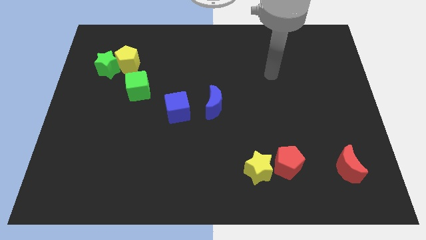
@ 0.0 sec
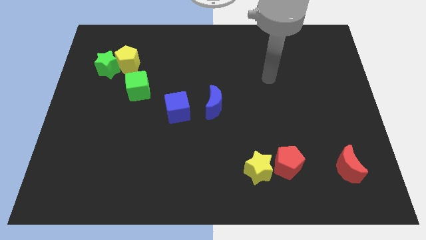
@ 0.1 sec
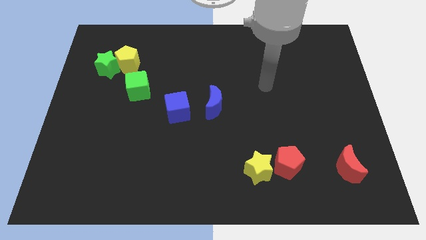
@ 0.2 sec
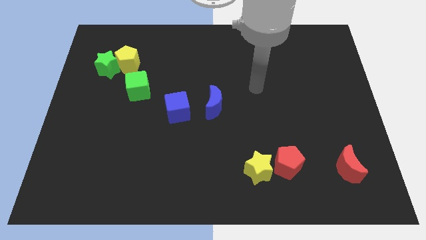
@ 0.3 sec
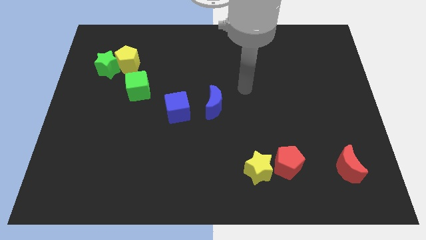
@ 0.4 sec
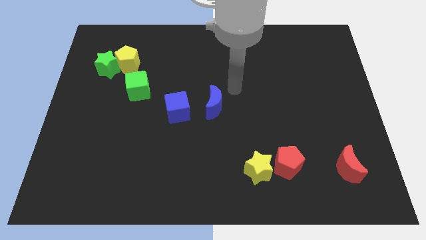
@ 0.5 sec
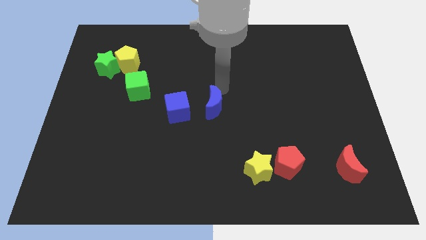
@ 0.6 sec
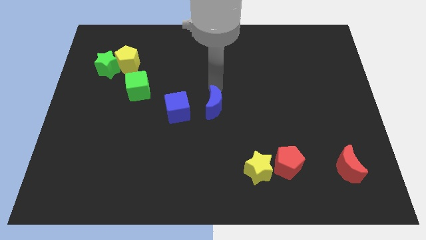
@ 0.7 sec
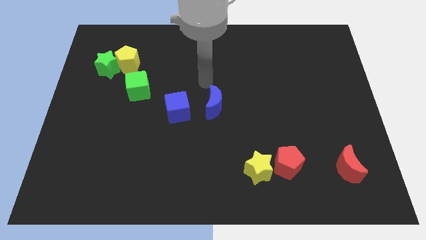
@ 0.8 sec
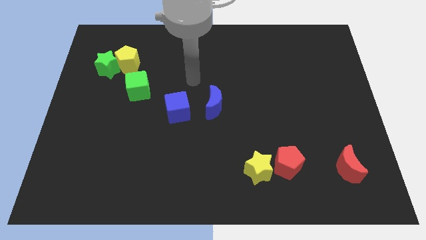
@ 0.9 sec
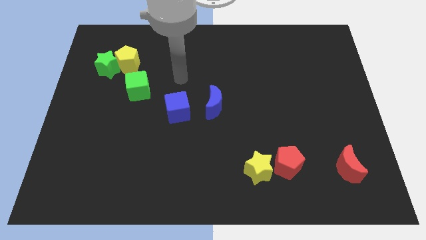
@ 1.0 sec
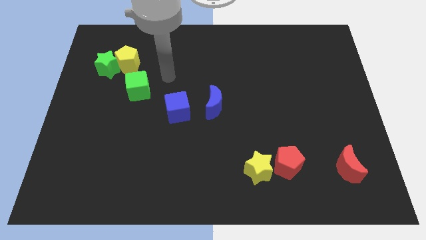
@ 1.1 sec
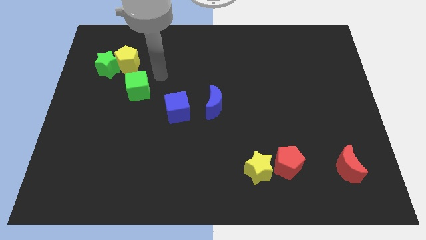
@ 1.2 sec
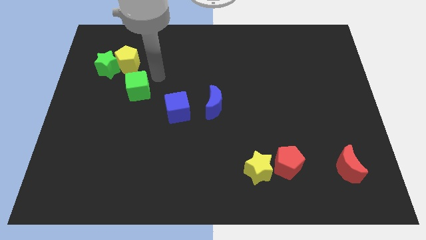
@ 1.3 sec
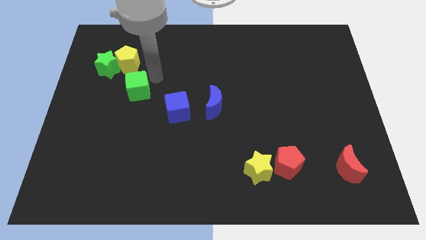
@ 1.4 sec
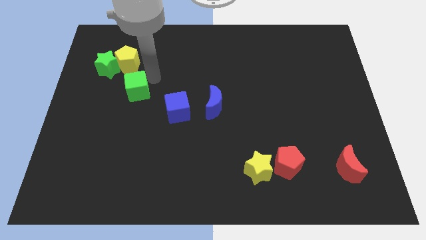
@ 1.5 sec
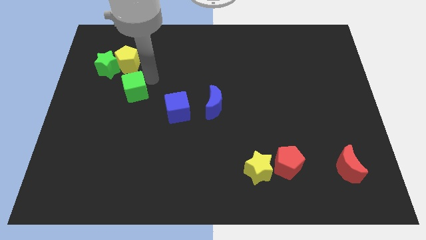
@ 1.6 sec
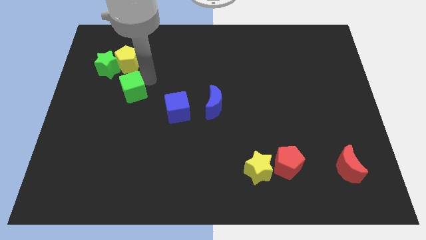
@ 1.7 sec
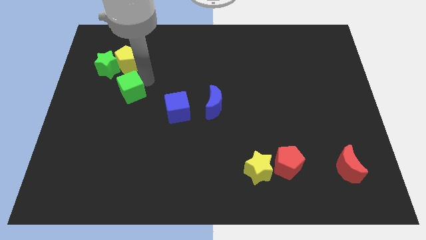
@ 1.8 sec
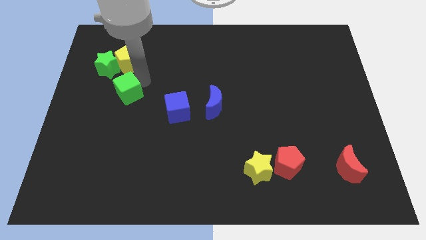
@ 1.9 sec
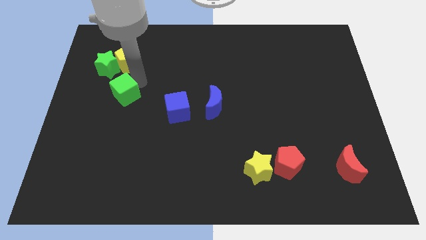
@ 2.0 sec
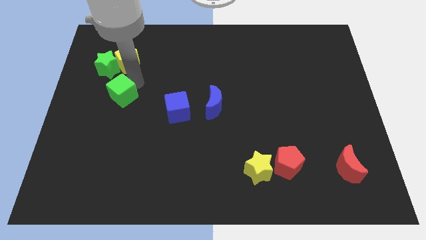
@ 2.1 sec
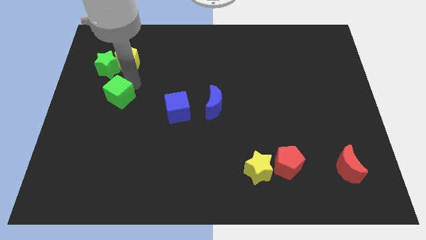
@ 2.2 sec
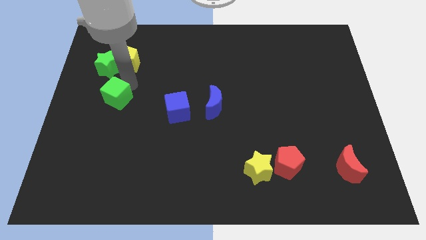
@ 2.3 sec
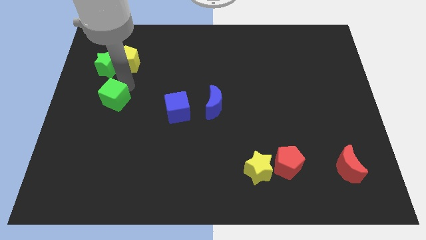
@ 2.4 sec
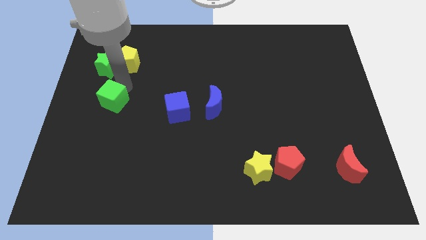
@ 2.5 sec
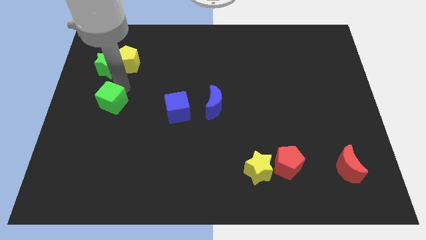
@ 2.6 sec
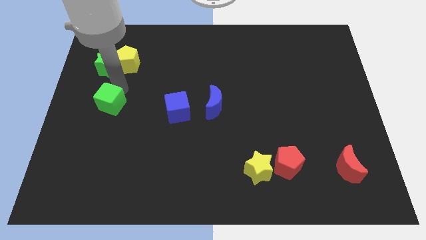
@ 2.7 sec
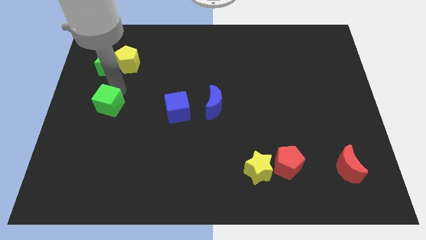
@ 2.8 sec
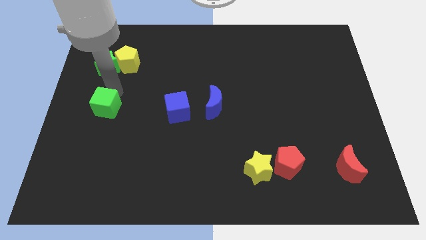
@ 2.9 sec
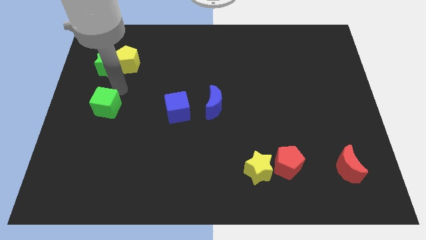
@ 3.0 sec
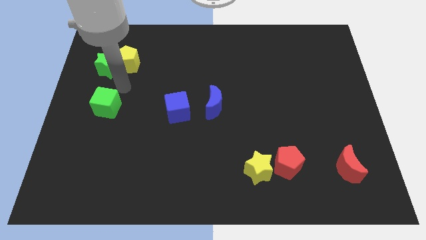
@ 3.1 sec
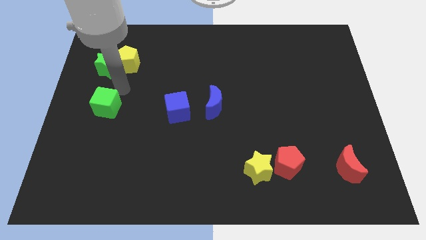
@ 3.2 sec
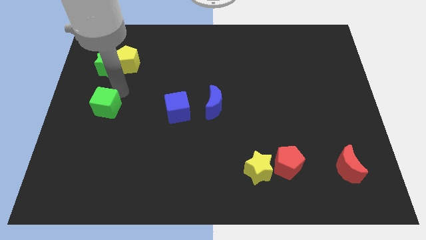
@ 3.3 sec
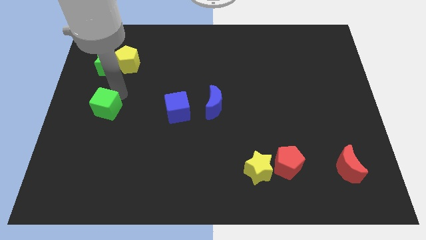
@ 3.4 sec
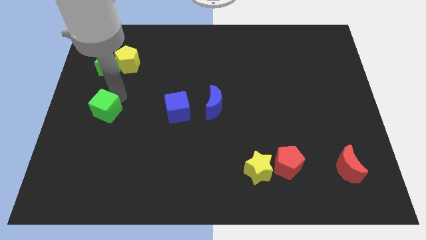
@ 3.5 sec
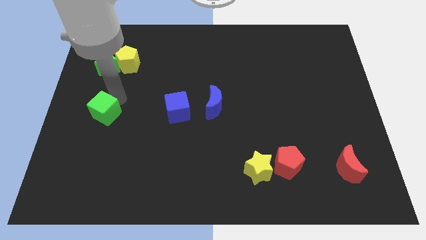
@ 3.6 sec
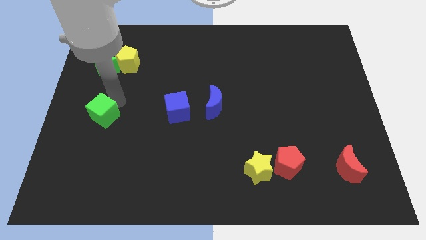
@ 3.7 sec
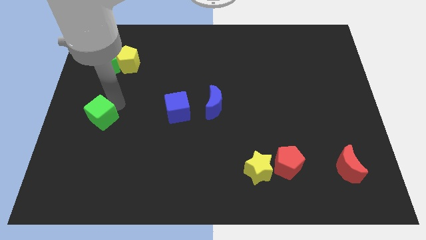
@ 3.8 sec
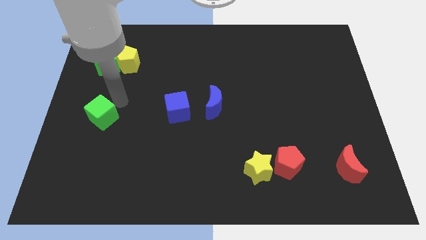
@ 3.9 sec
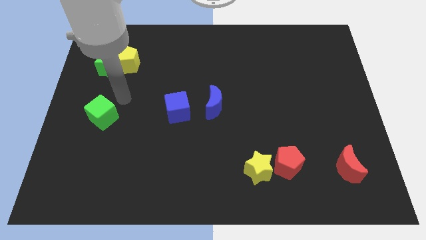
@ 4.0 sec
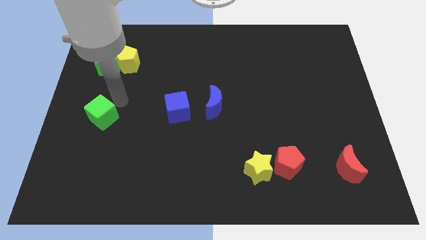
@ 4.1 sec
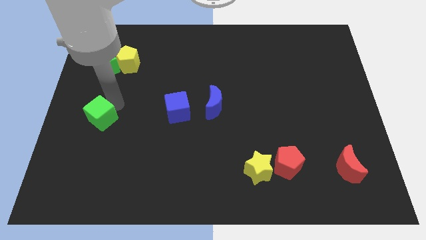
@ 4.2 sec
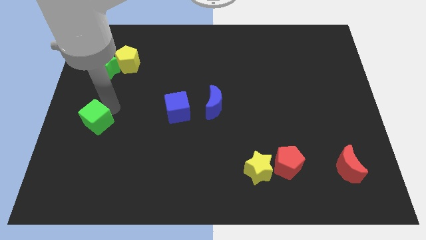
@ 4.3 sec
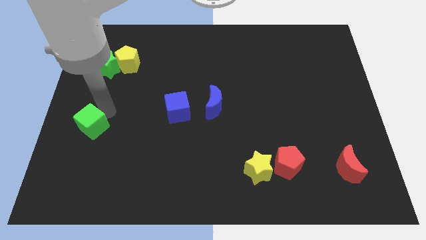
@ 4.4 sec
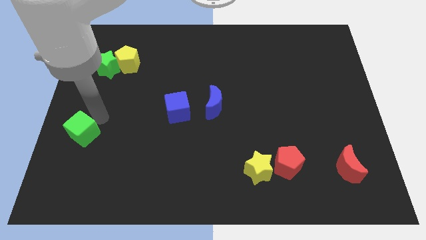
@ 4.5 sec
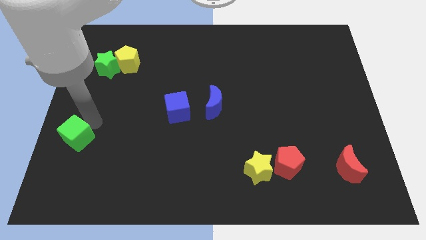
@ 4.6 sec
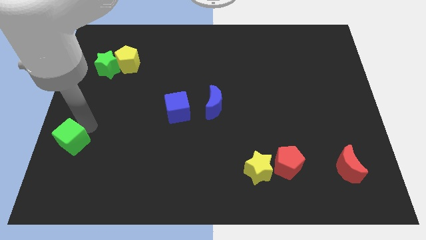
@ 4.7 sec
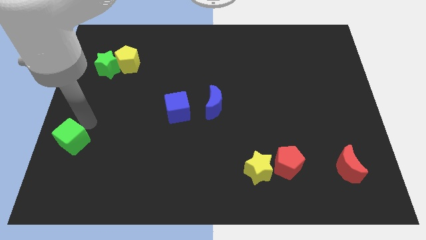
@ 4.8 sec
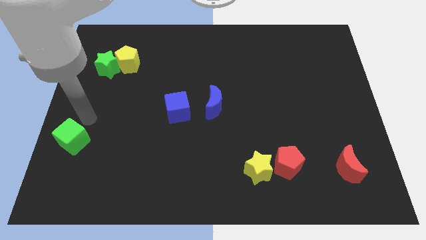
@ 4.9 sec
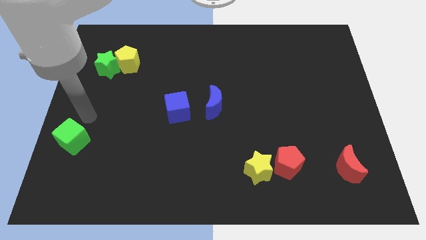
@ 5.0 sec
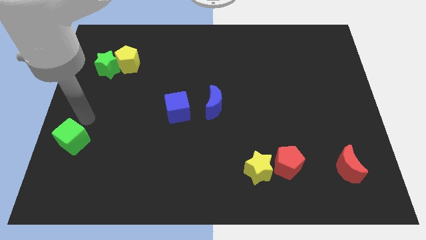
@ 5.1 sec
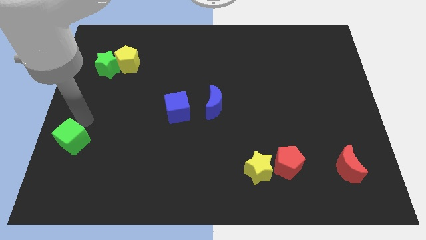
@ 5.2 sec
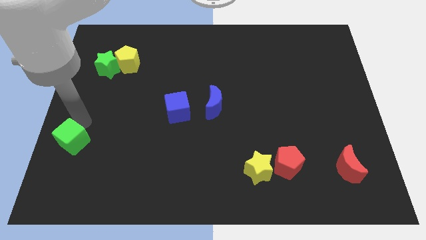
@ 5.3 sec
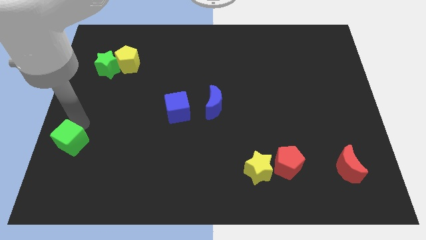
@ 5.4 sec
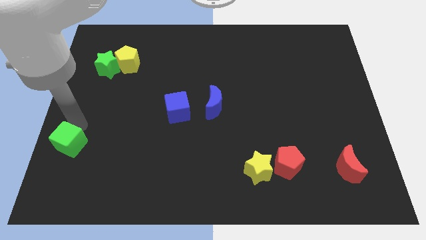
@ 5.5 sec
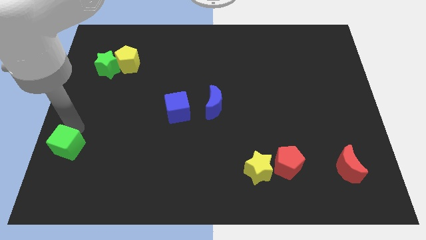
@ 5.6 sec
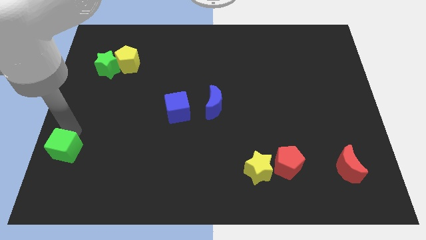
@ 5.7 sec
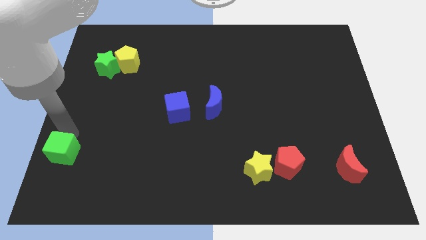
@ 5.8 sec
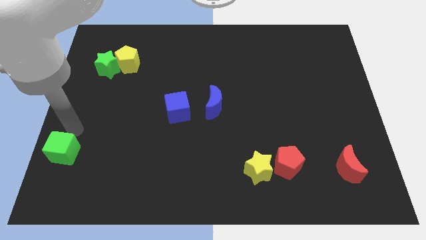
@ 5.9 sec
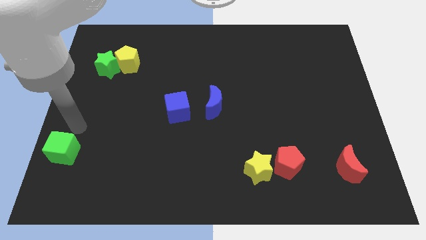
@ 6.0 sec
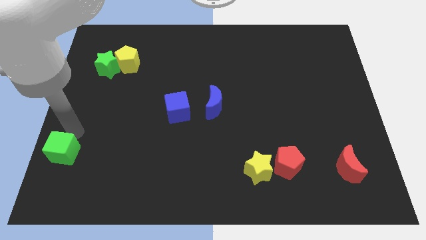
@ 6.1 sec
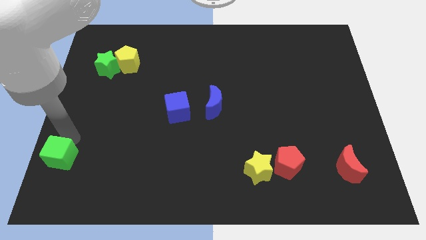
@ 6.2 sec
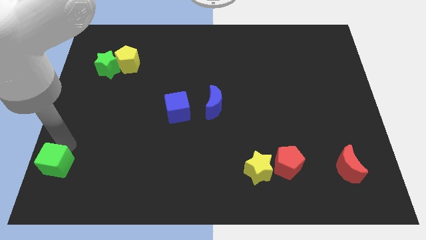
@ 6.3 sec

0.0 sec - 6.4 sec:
move the green cube to the bottom left of the board

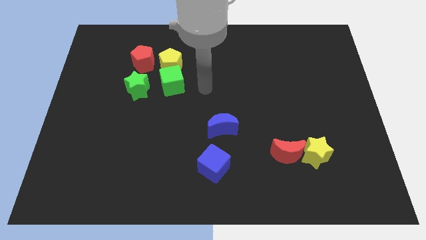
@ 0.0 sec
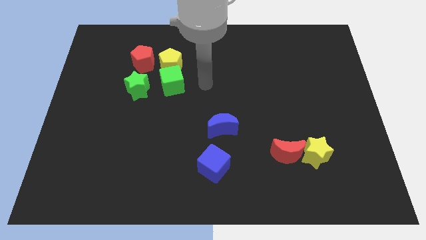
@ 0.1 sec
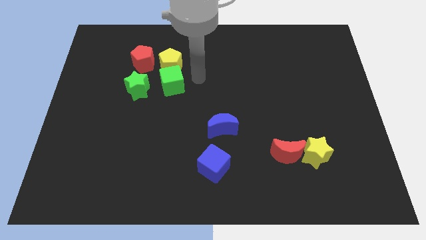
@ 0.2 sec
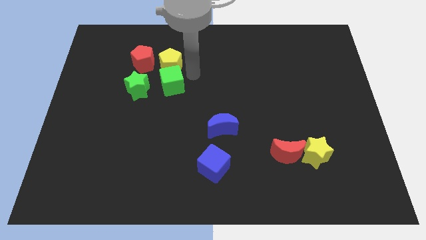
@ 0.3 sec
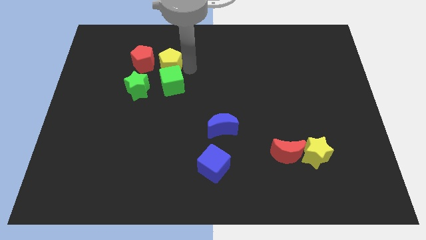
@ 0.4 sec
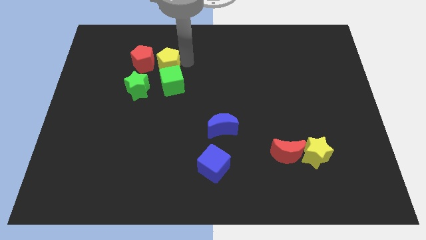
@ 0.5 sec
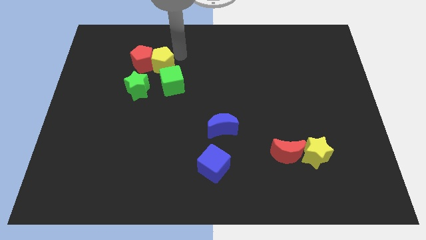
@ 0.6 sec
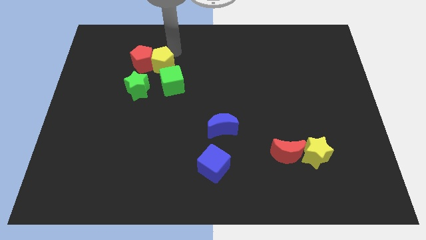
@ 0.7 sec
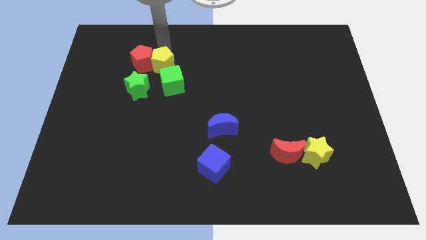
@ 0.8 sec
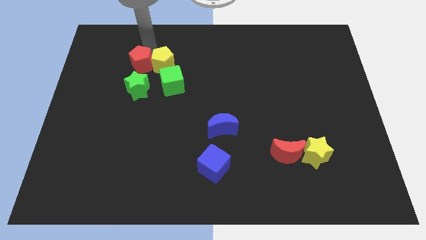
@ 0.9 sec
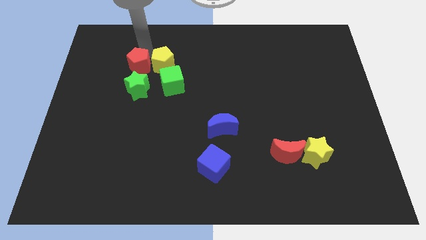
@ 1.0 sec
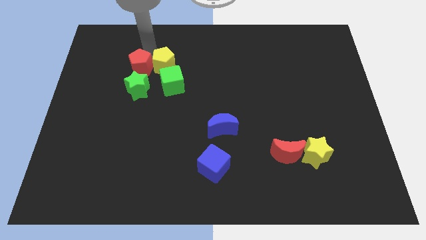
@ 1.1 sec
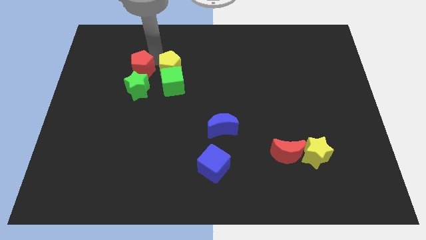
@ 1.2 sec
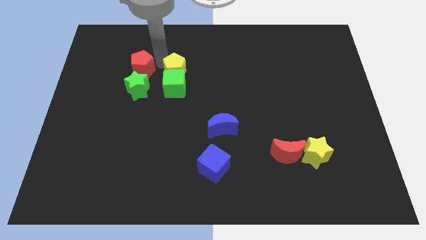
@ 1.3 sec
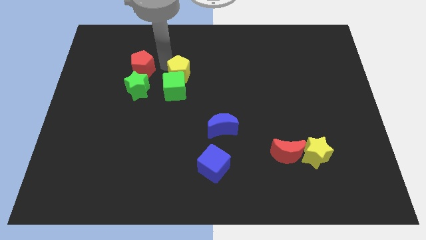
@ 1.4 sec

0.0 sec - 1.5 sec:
put the yellow pentagon to the center of the board
